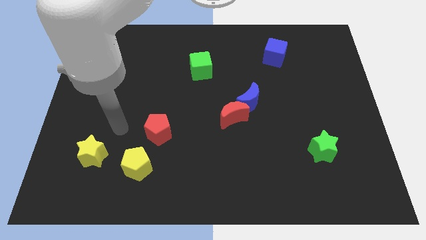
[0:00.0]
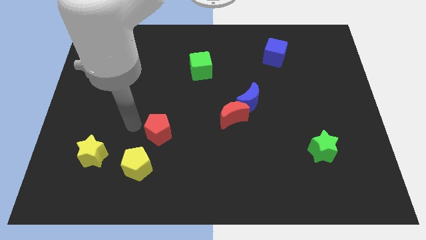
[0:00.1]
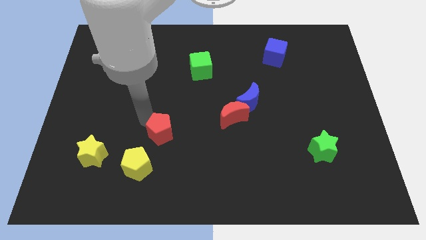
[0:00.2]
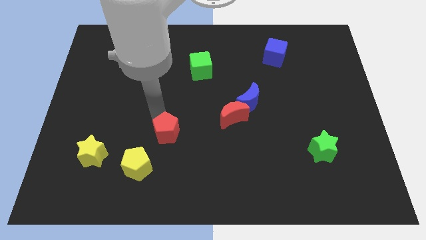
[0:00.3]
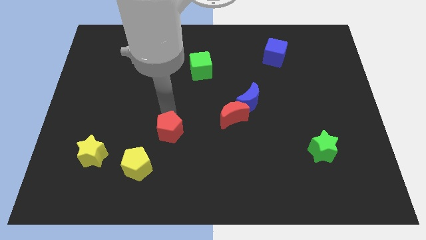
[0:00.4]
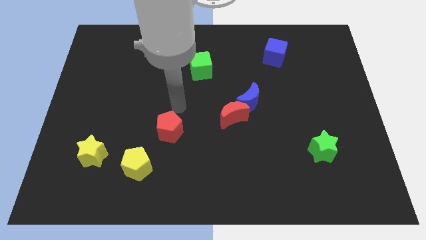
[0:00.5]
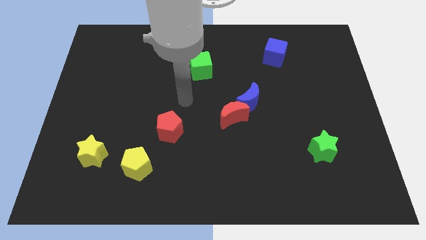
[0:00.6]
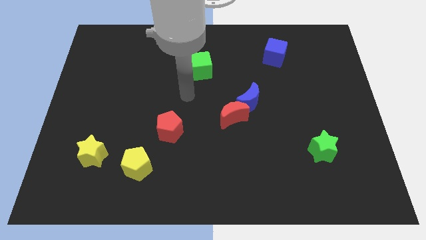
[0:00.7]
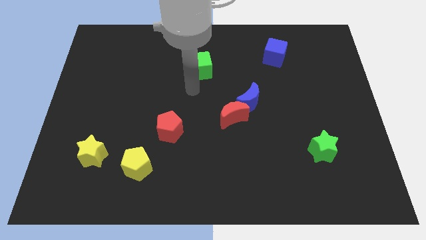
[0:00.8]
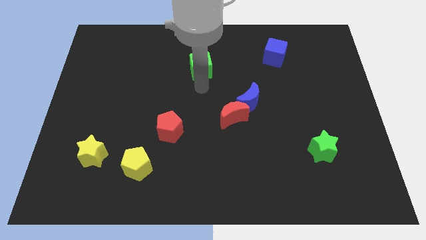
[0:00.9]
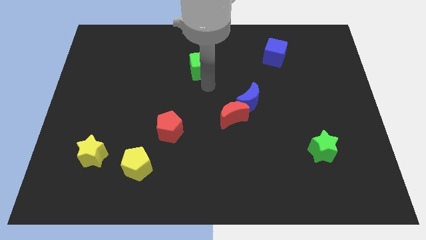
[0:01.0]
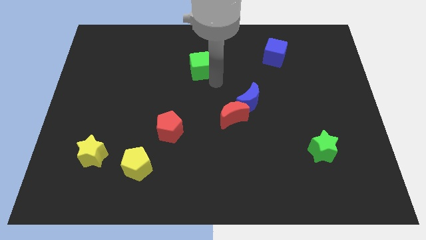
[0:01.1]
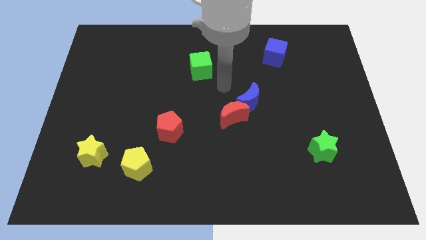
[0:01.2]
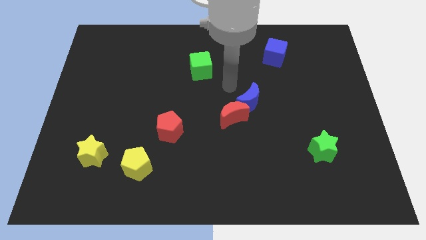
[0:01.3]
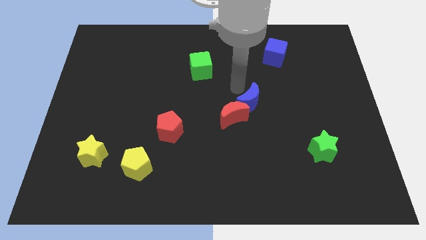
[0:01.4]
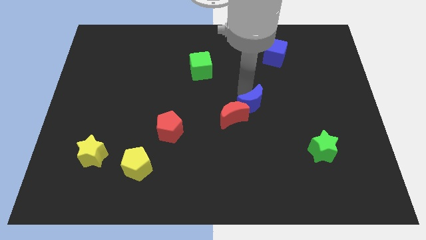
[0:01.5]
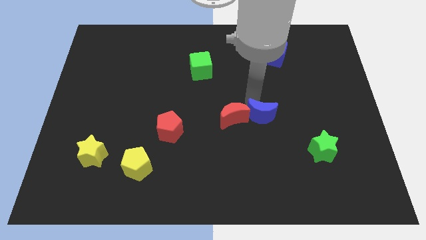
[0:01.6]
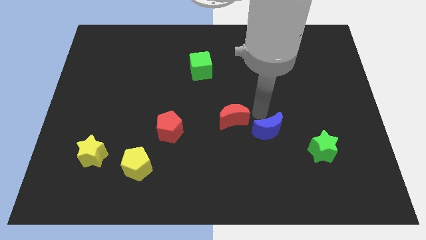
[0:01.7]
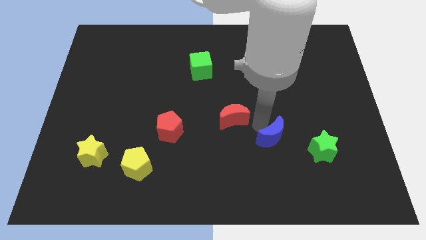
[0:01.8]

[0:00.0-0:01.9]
pull the red moon apart from the blue moon

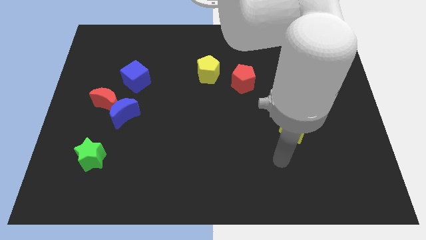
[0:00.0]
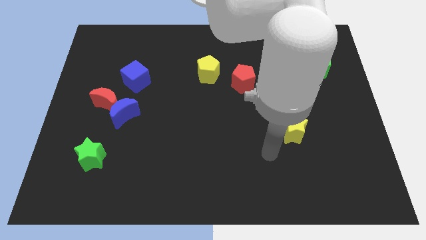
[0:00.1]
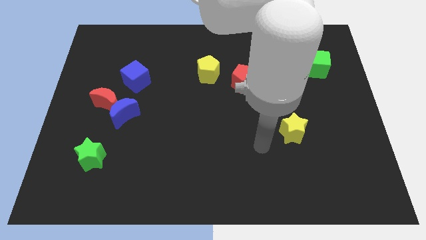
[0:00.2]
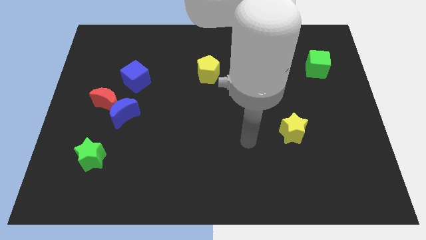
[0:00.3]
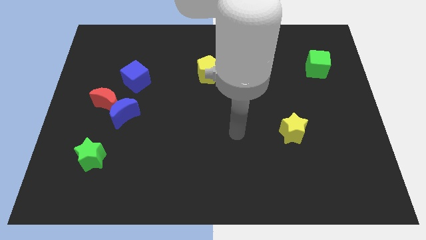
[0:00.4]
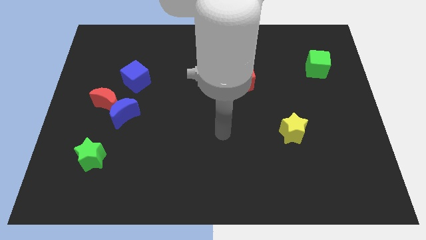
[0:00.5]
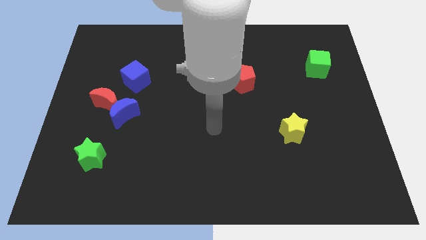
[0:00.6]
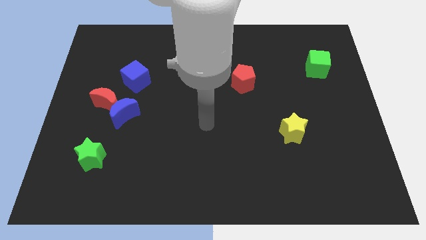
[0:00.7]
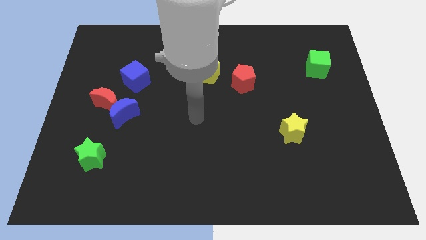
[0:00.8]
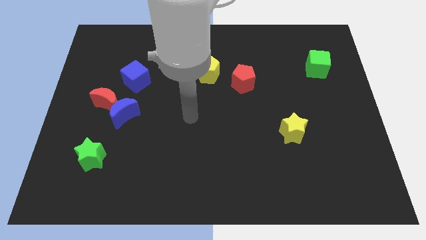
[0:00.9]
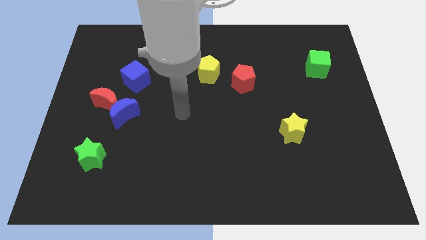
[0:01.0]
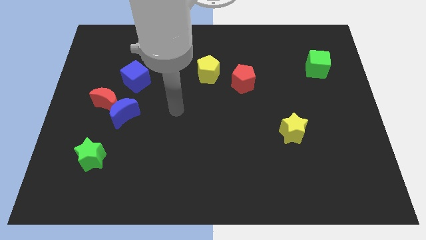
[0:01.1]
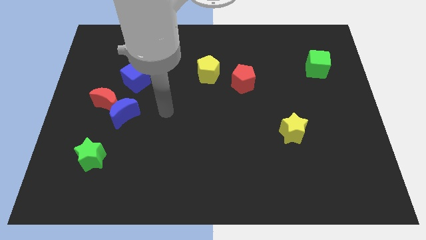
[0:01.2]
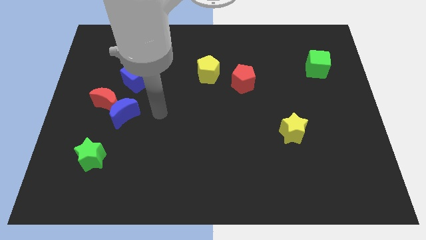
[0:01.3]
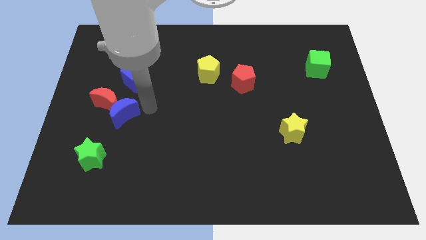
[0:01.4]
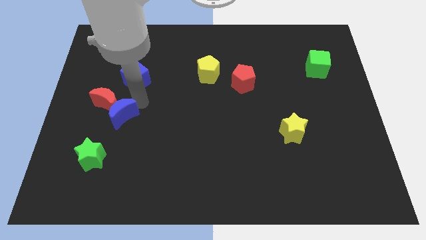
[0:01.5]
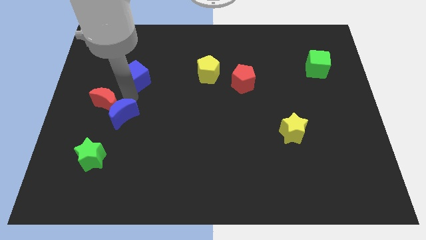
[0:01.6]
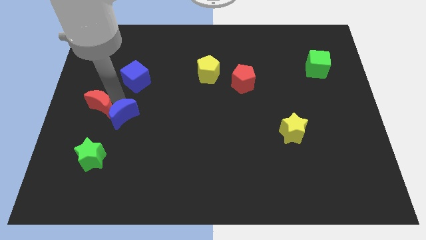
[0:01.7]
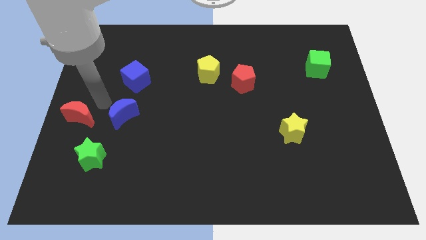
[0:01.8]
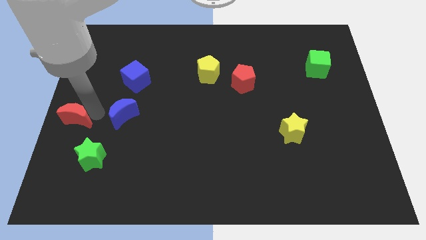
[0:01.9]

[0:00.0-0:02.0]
separate the blue moon from the red moon

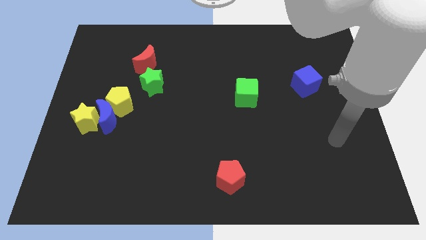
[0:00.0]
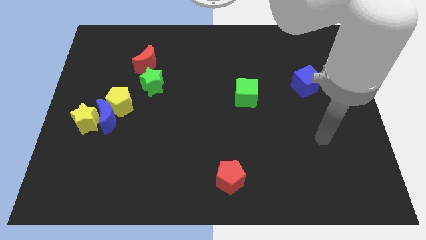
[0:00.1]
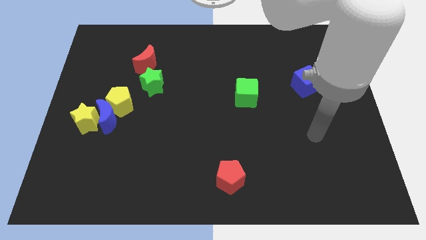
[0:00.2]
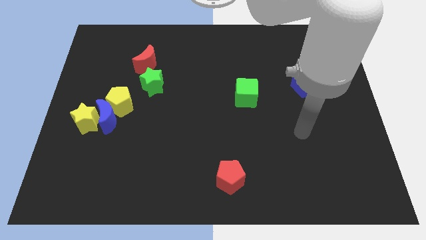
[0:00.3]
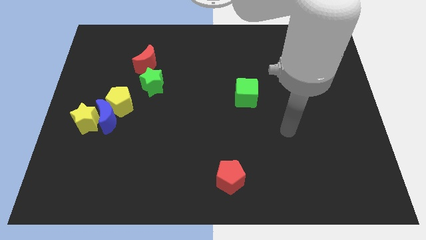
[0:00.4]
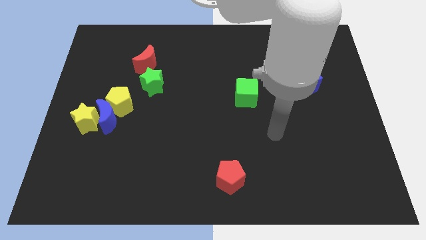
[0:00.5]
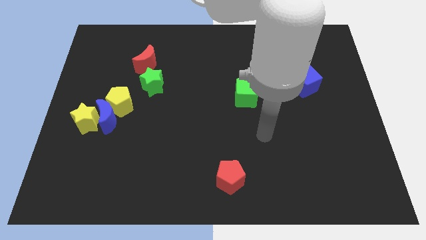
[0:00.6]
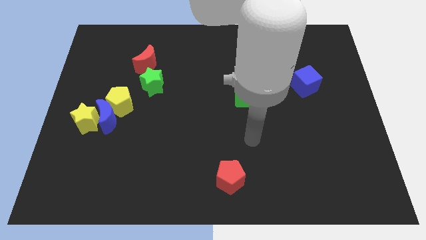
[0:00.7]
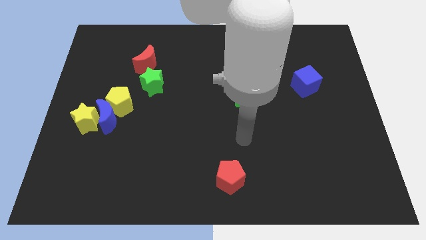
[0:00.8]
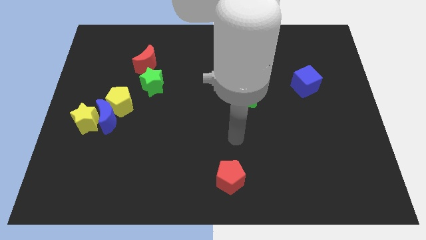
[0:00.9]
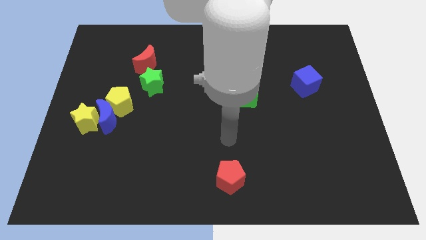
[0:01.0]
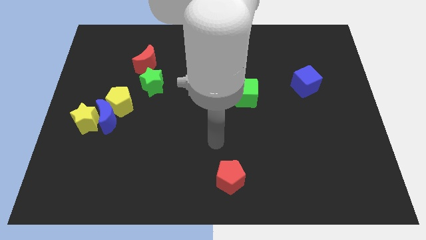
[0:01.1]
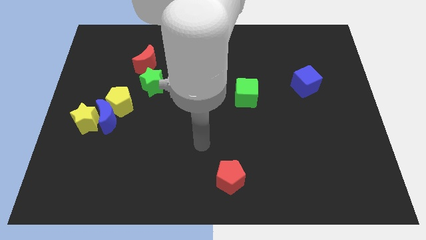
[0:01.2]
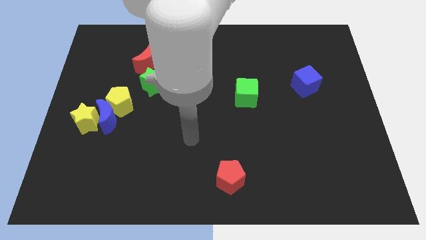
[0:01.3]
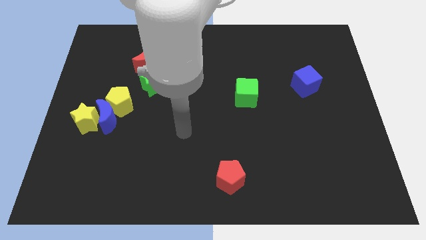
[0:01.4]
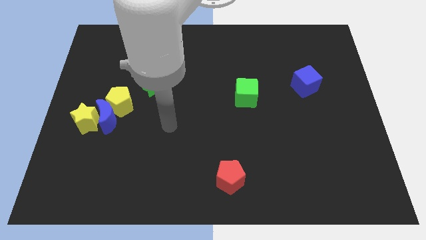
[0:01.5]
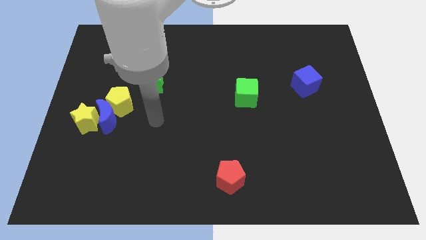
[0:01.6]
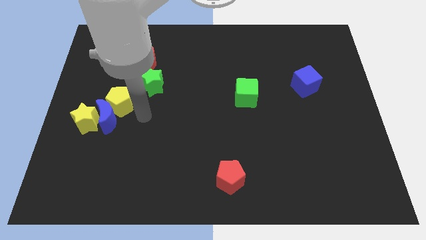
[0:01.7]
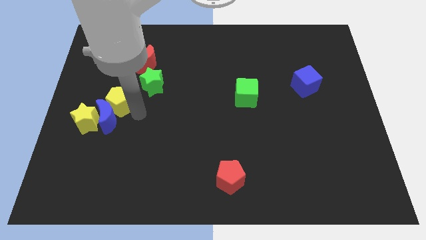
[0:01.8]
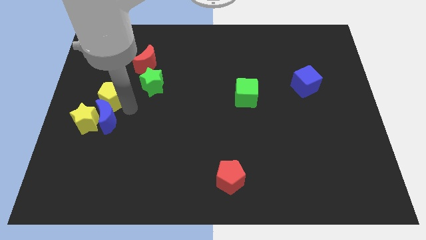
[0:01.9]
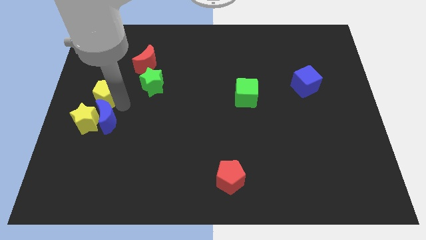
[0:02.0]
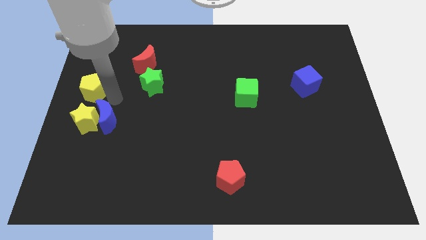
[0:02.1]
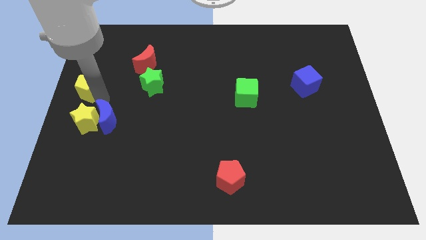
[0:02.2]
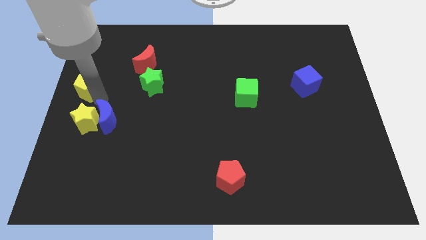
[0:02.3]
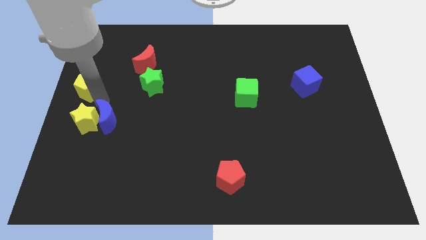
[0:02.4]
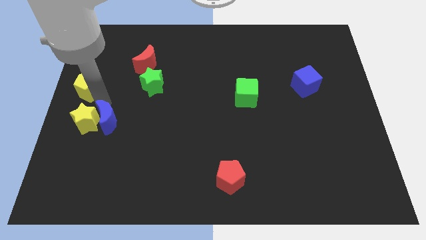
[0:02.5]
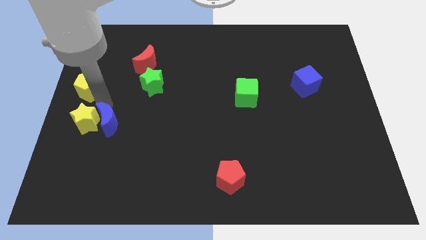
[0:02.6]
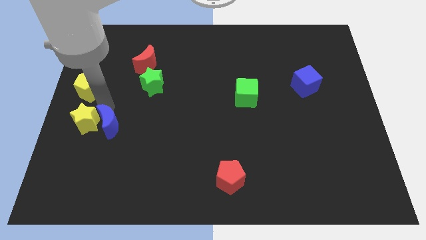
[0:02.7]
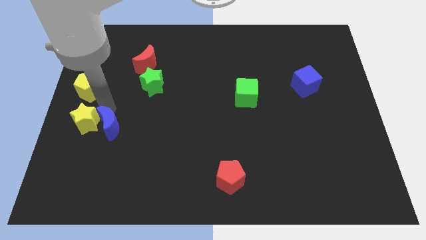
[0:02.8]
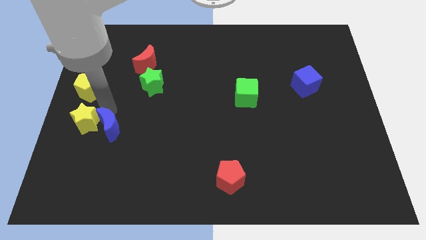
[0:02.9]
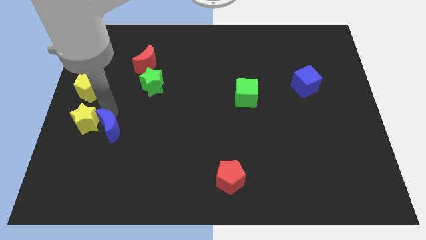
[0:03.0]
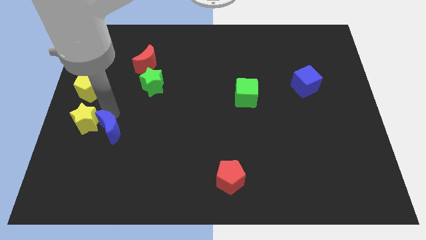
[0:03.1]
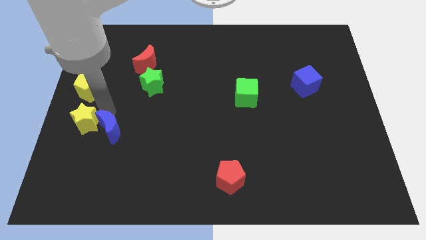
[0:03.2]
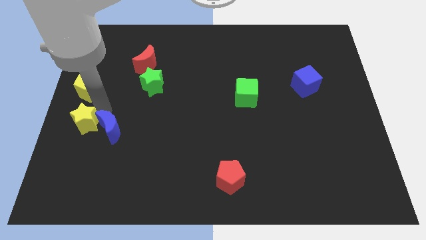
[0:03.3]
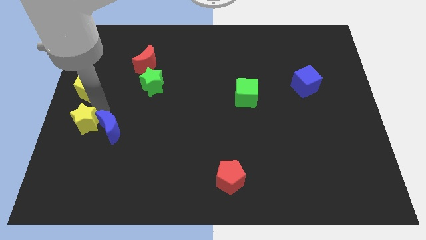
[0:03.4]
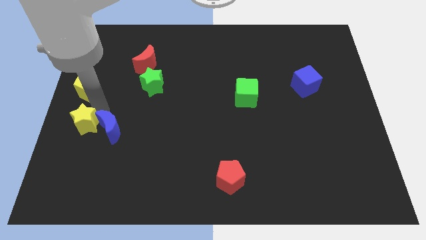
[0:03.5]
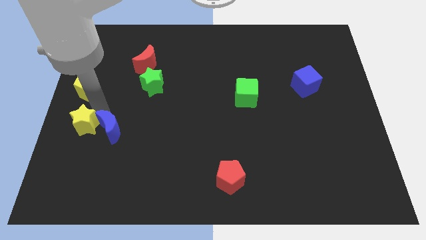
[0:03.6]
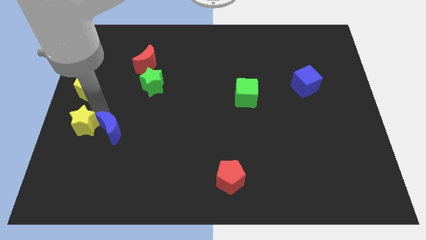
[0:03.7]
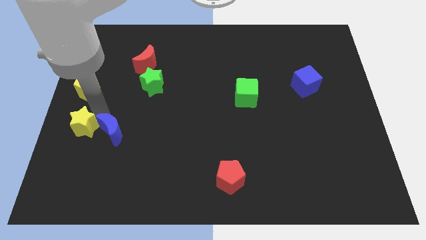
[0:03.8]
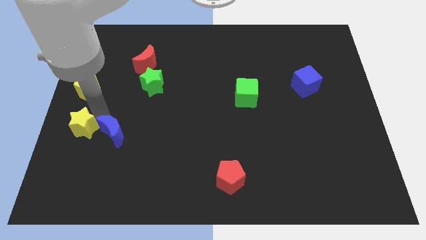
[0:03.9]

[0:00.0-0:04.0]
move the blue moon away from the yellow star and yellow pentagon

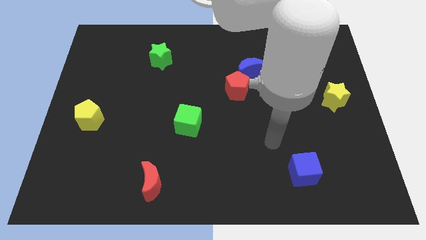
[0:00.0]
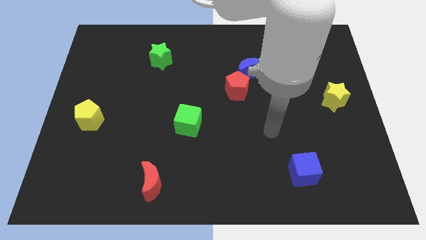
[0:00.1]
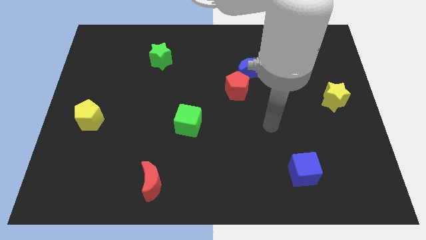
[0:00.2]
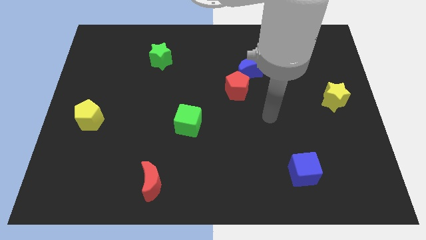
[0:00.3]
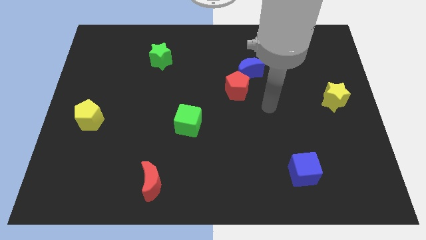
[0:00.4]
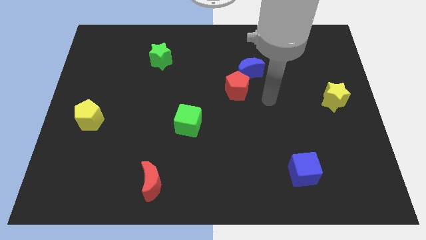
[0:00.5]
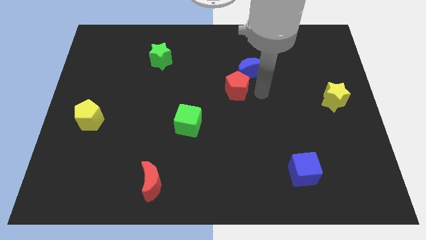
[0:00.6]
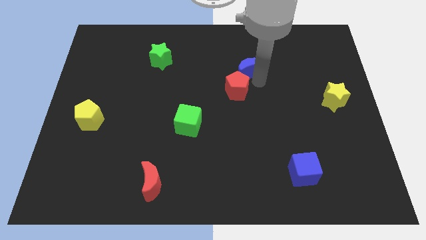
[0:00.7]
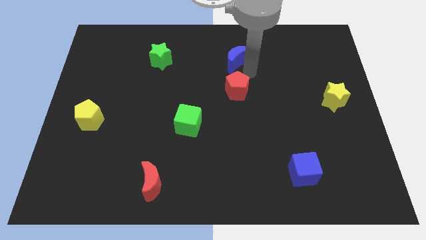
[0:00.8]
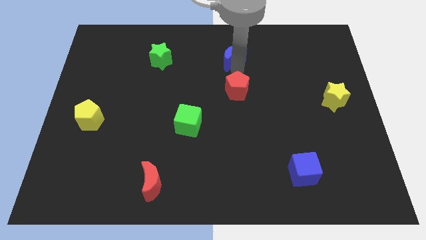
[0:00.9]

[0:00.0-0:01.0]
pull the red pentagon apart from the blue moon

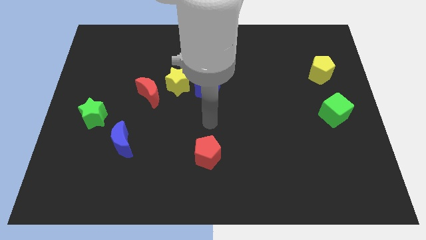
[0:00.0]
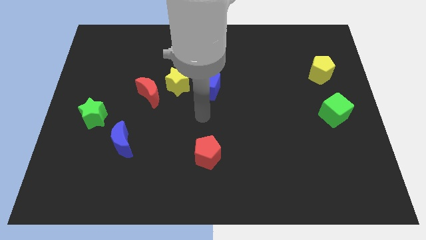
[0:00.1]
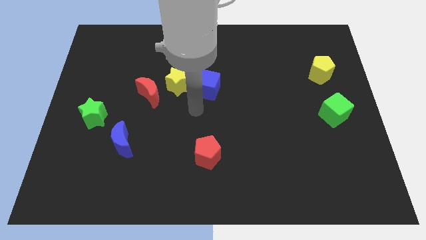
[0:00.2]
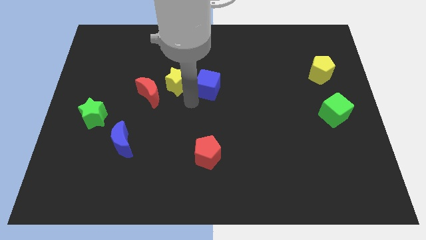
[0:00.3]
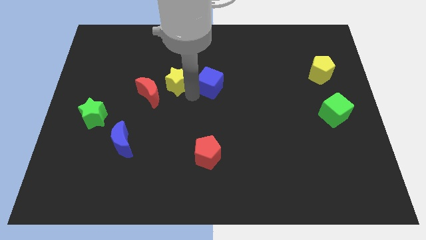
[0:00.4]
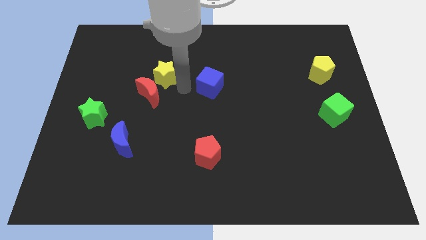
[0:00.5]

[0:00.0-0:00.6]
move the blue cube away from the yellow star
